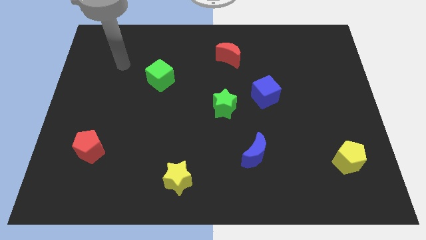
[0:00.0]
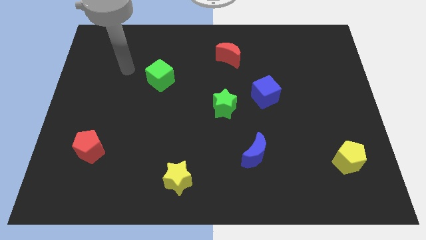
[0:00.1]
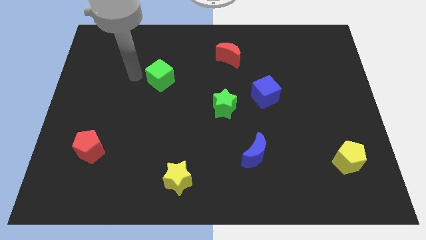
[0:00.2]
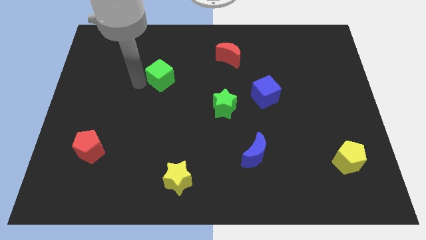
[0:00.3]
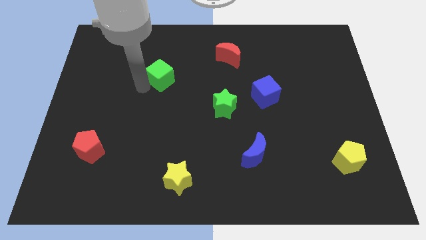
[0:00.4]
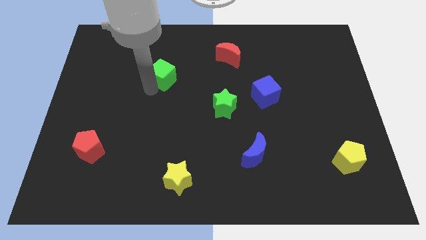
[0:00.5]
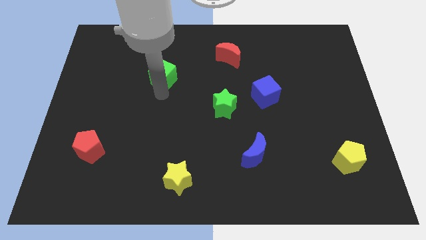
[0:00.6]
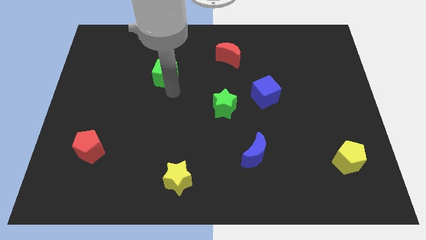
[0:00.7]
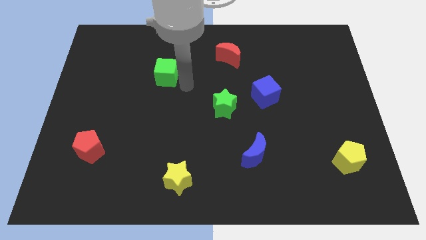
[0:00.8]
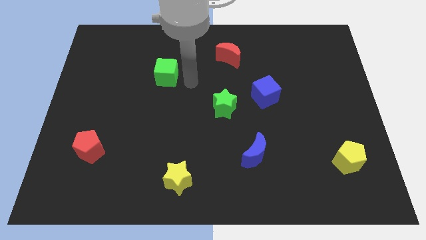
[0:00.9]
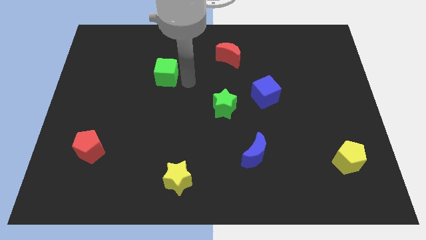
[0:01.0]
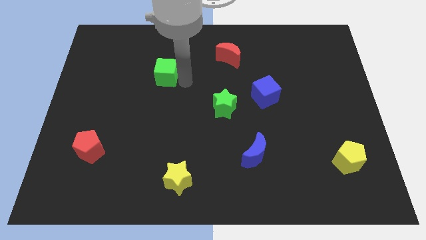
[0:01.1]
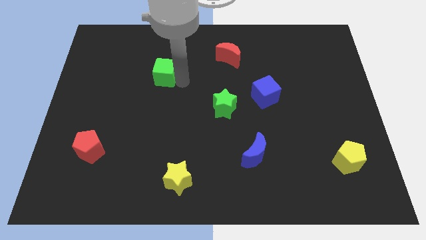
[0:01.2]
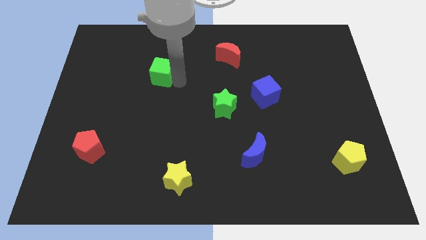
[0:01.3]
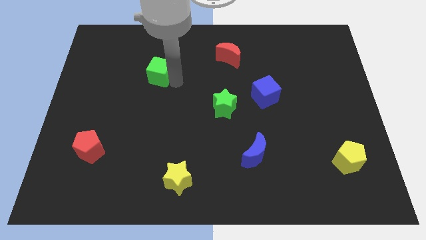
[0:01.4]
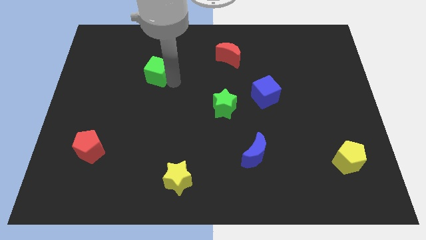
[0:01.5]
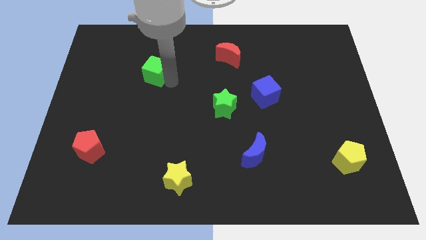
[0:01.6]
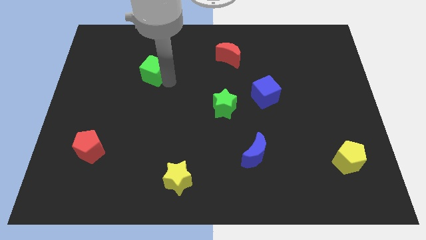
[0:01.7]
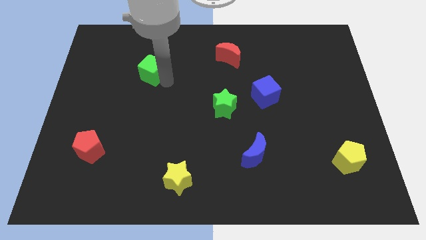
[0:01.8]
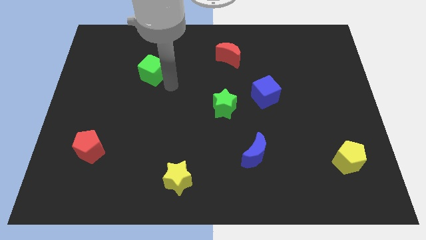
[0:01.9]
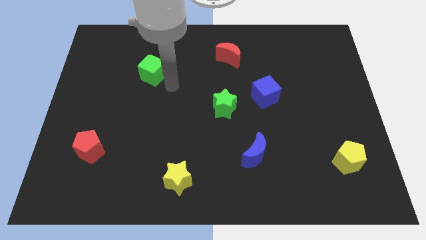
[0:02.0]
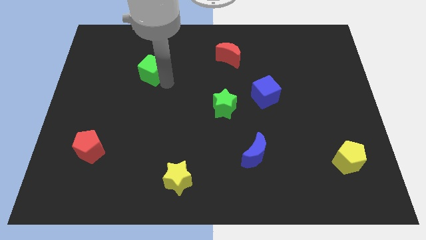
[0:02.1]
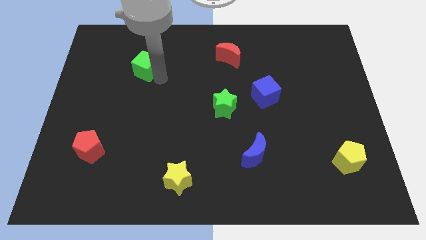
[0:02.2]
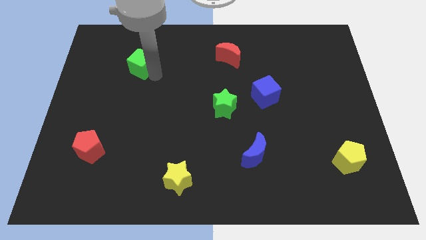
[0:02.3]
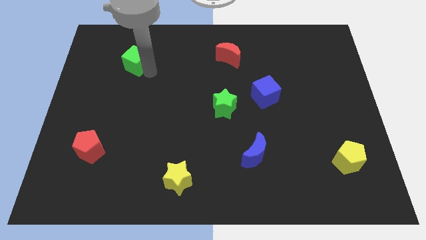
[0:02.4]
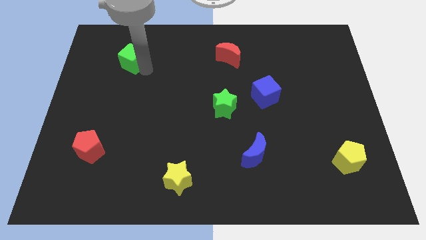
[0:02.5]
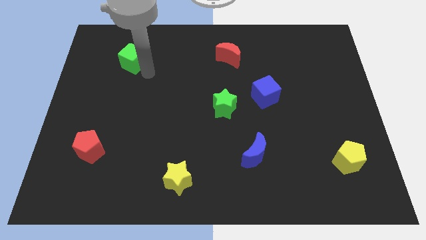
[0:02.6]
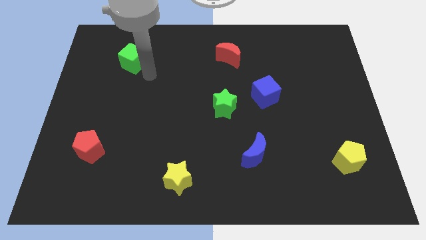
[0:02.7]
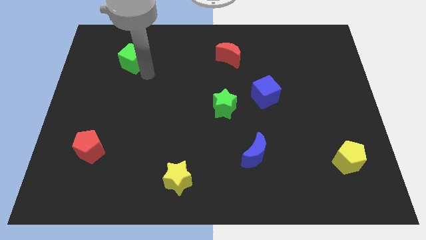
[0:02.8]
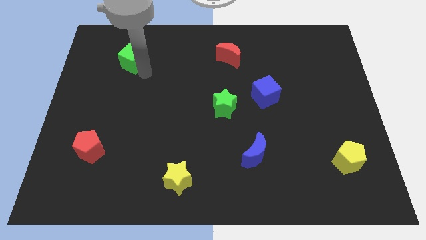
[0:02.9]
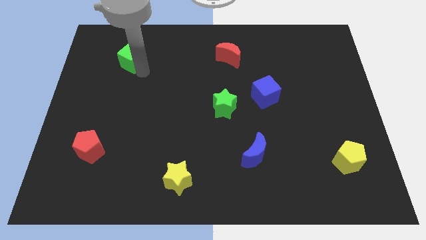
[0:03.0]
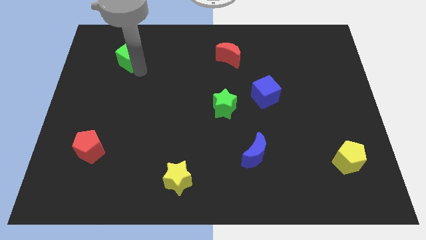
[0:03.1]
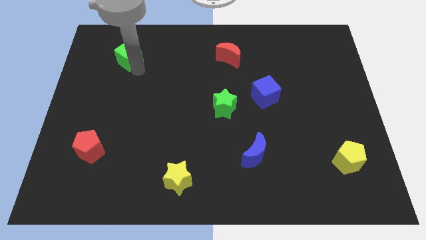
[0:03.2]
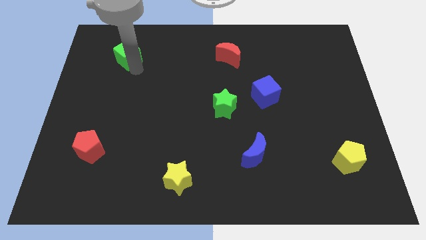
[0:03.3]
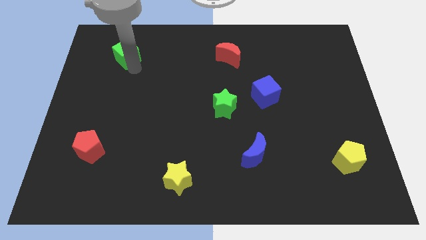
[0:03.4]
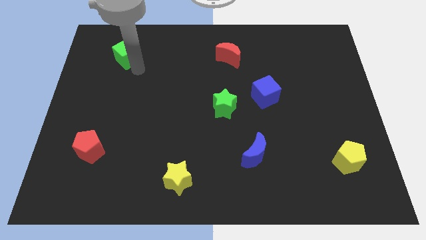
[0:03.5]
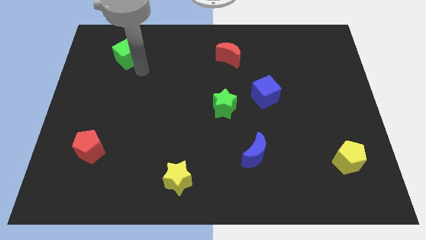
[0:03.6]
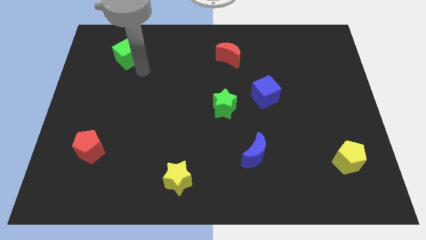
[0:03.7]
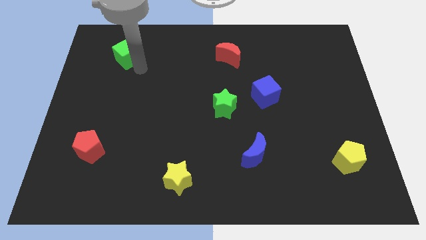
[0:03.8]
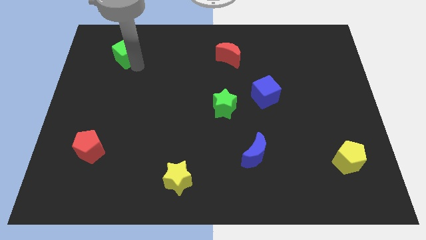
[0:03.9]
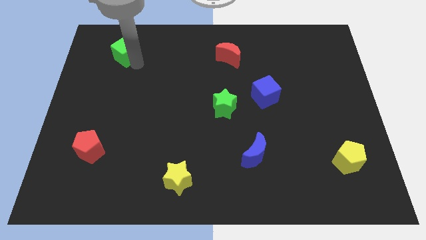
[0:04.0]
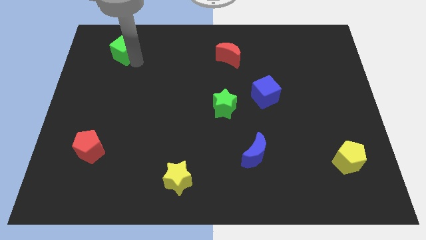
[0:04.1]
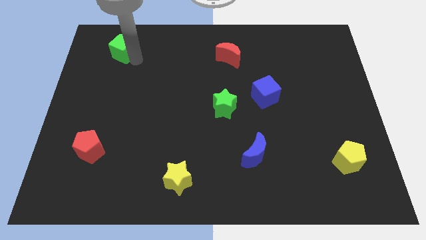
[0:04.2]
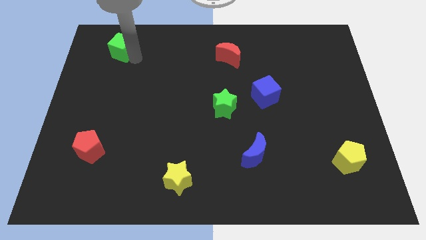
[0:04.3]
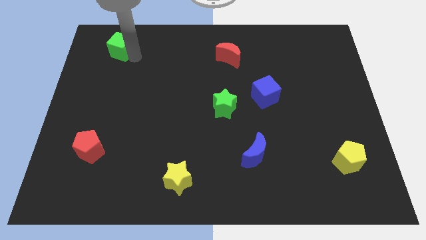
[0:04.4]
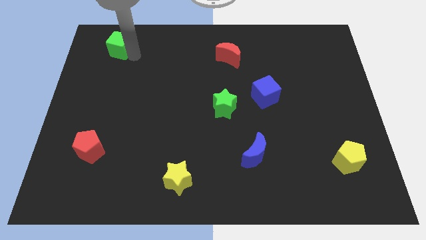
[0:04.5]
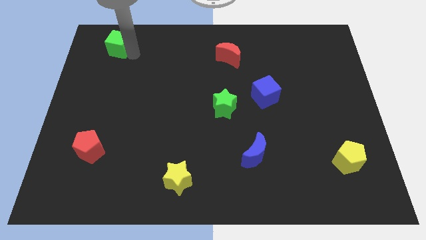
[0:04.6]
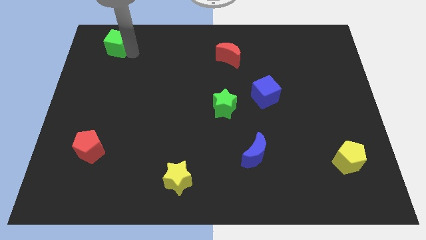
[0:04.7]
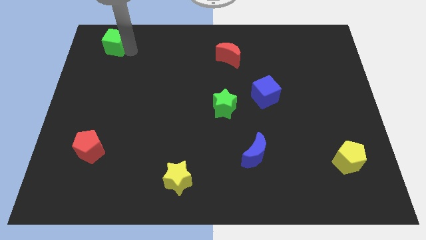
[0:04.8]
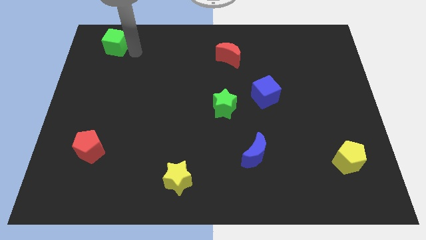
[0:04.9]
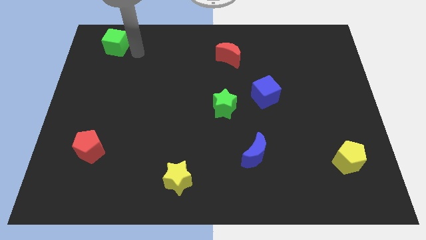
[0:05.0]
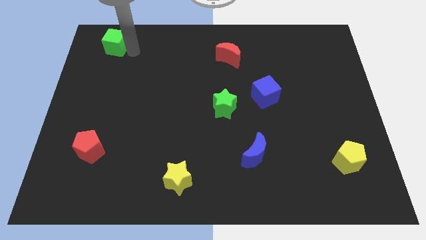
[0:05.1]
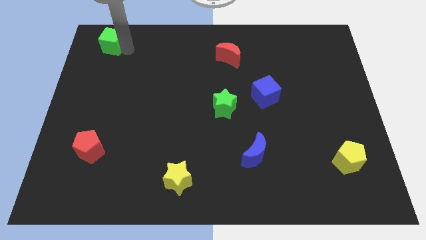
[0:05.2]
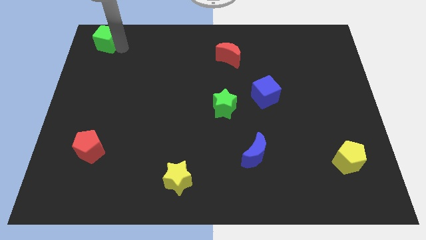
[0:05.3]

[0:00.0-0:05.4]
push the green cube to the upper left corner
